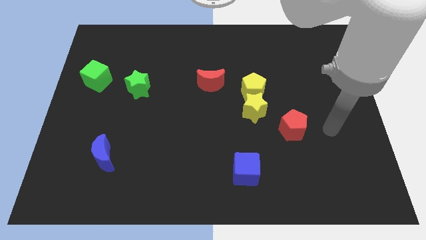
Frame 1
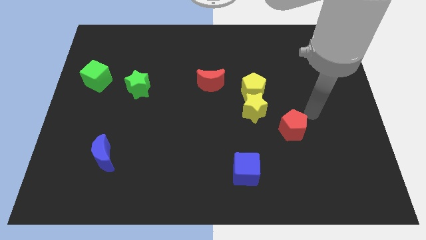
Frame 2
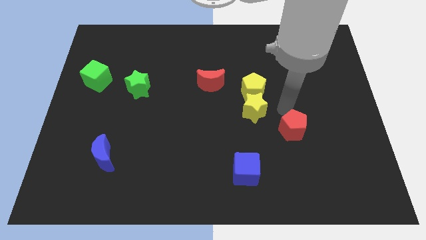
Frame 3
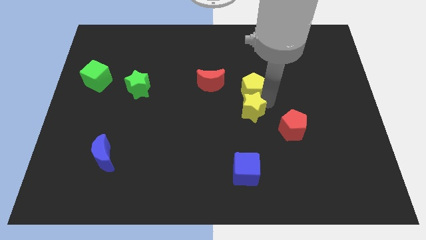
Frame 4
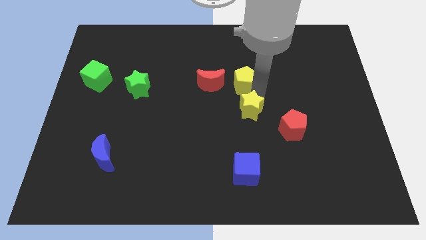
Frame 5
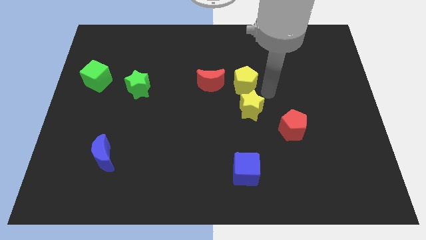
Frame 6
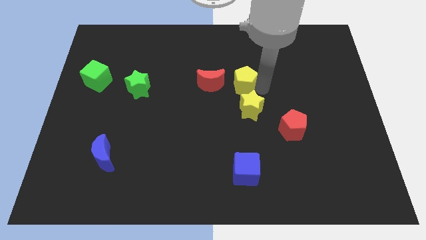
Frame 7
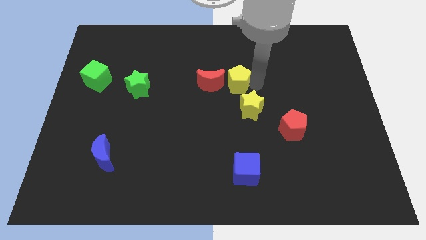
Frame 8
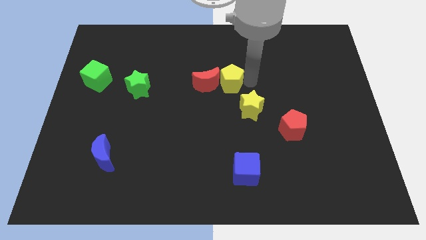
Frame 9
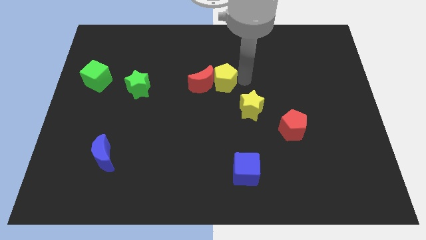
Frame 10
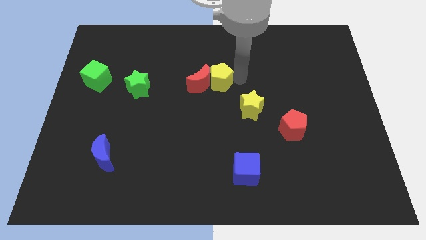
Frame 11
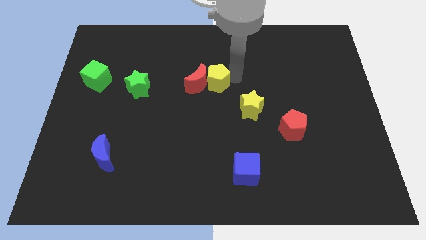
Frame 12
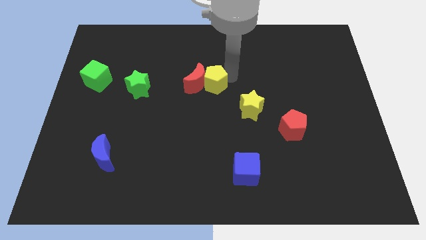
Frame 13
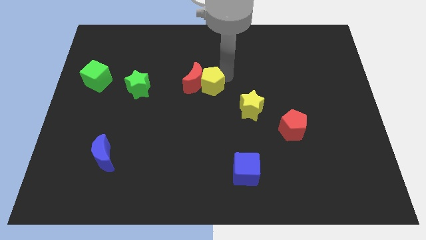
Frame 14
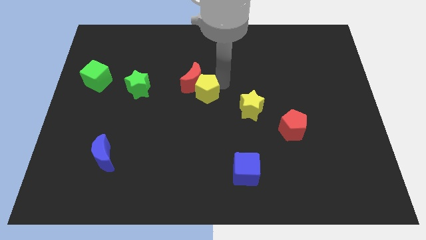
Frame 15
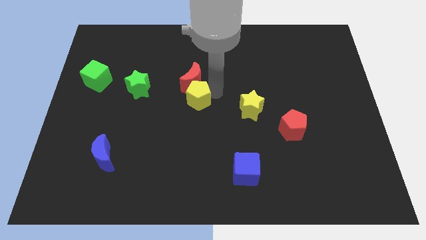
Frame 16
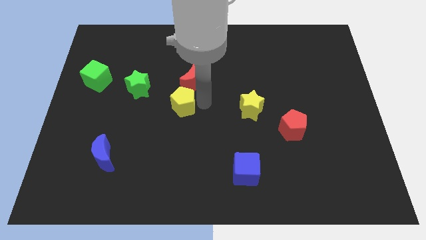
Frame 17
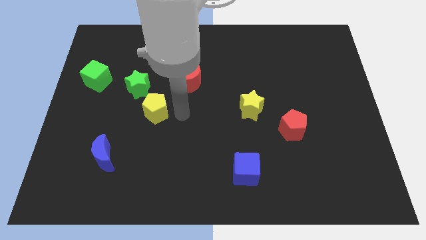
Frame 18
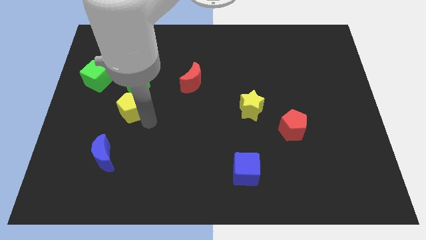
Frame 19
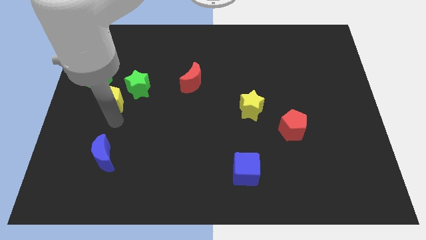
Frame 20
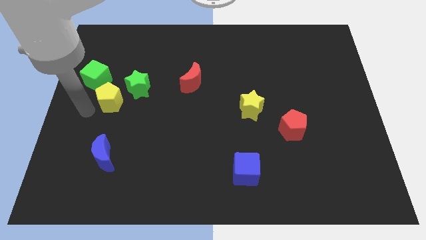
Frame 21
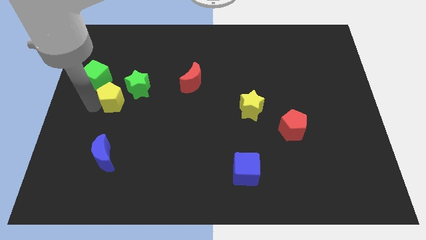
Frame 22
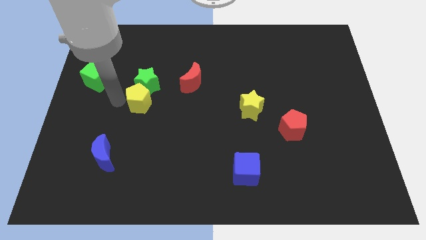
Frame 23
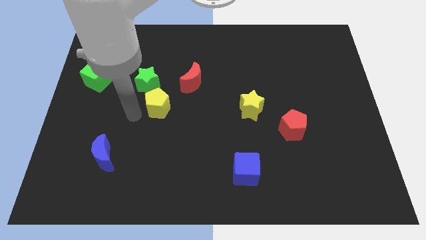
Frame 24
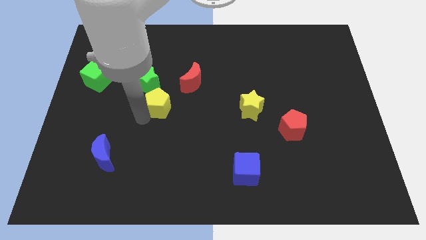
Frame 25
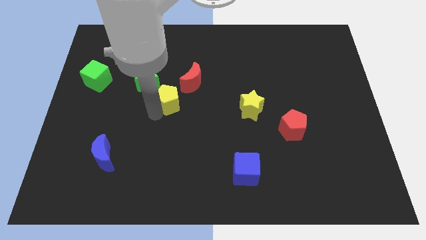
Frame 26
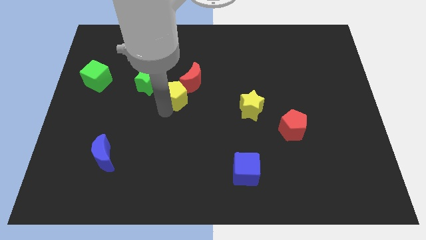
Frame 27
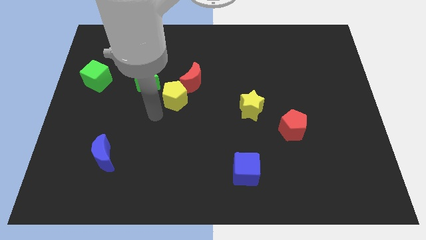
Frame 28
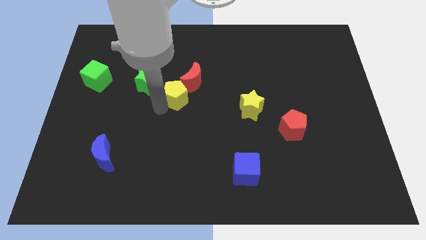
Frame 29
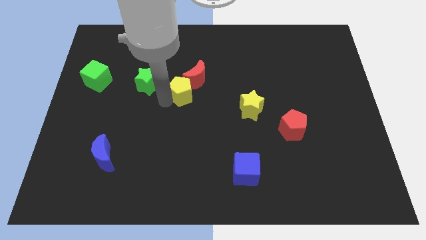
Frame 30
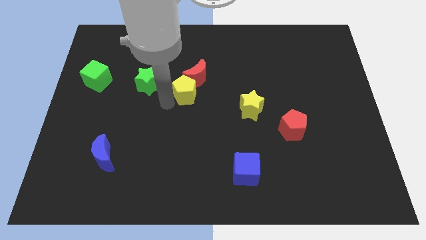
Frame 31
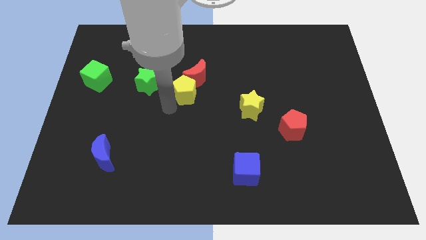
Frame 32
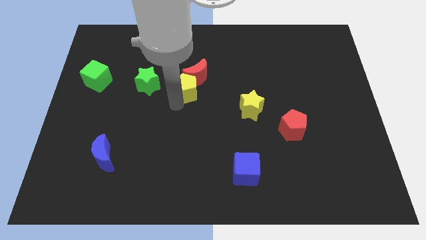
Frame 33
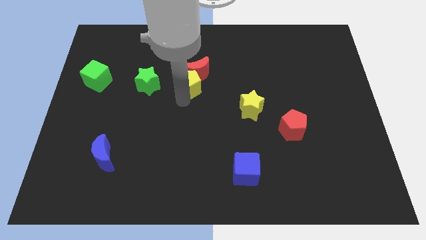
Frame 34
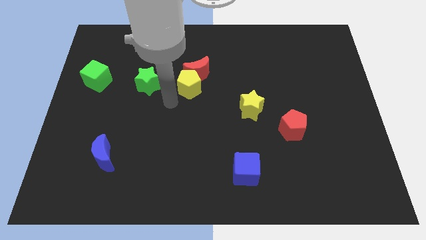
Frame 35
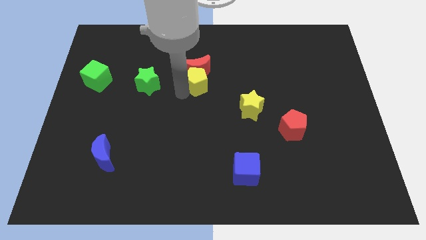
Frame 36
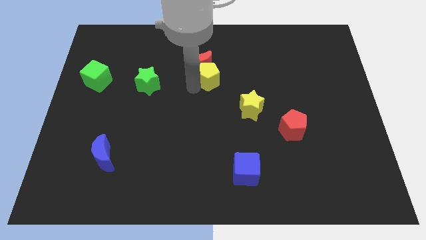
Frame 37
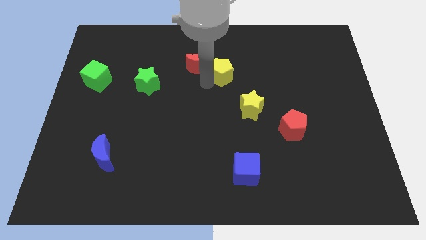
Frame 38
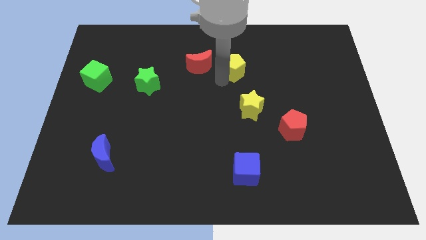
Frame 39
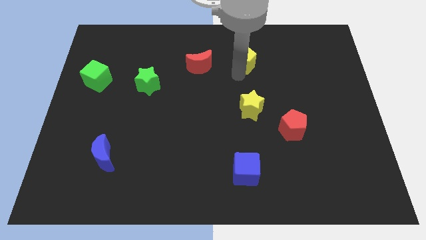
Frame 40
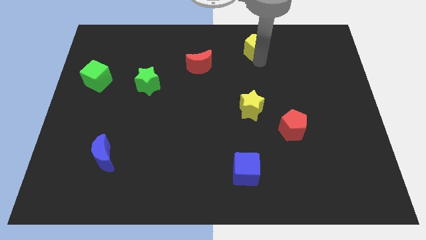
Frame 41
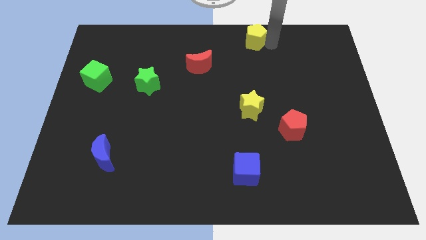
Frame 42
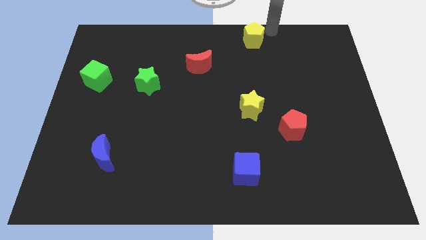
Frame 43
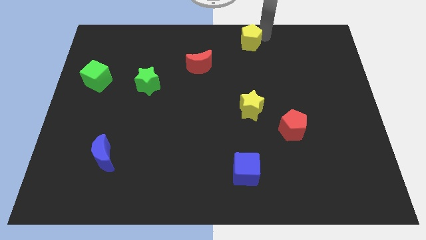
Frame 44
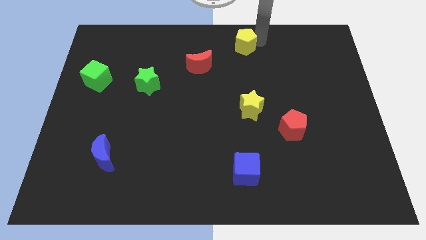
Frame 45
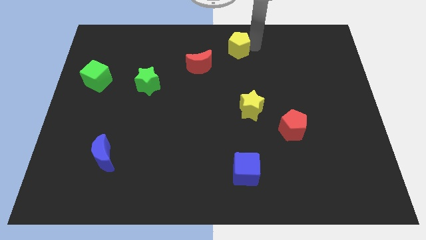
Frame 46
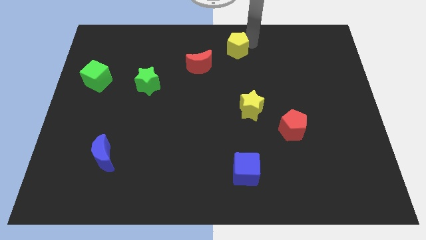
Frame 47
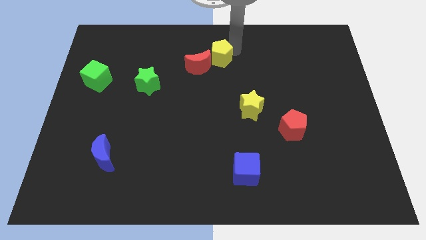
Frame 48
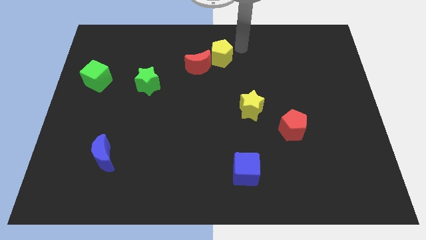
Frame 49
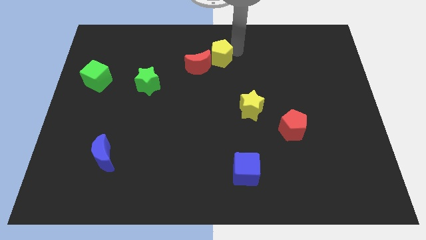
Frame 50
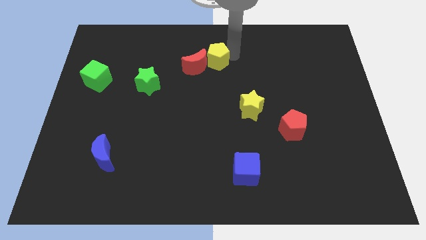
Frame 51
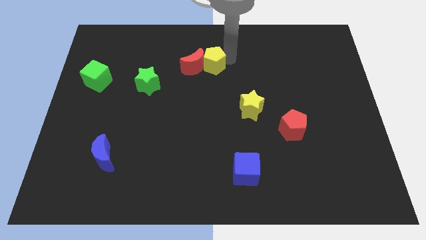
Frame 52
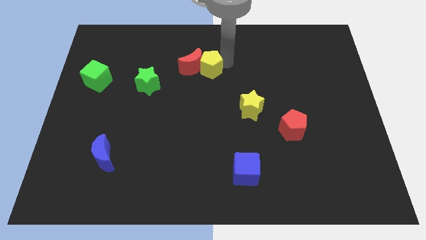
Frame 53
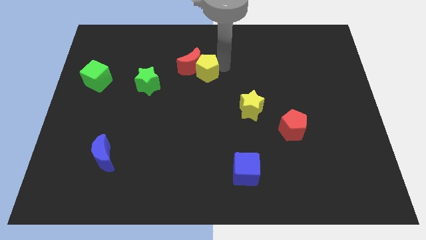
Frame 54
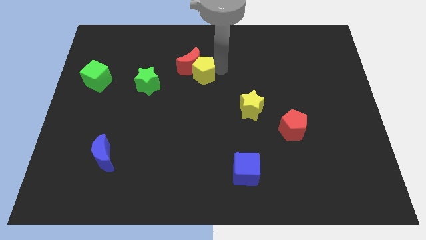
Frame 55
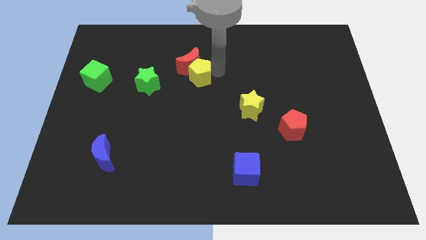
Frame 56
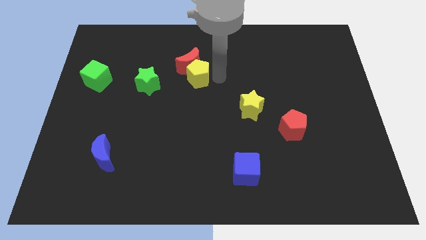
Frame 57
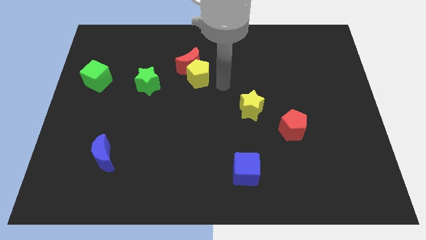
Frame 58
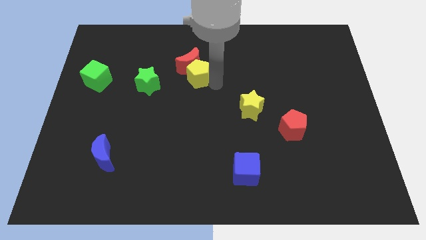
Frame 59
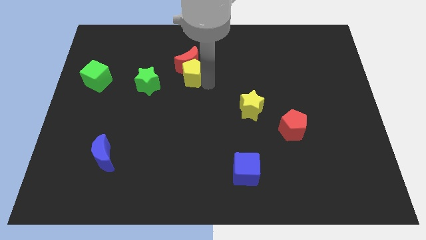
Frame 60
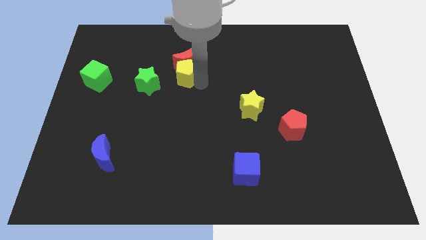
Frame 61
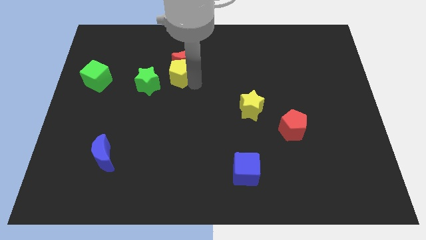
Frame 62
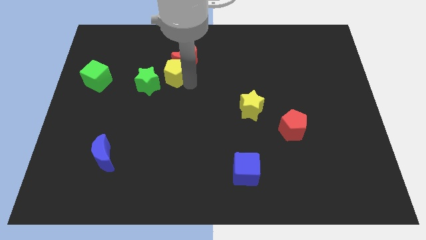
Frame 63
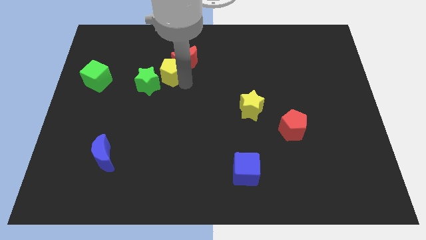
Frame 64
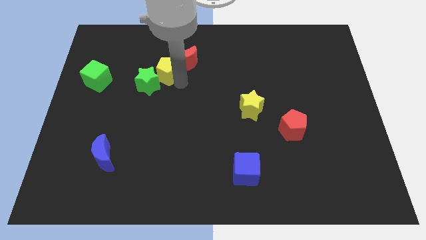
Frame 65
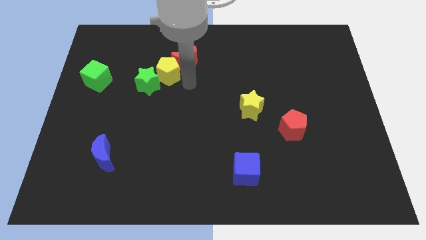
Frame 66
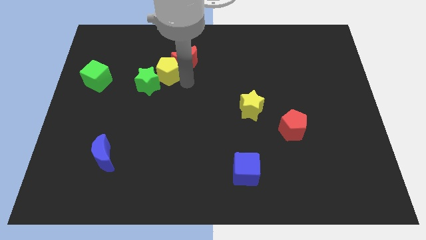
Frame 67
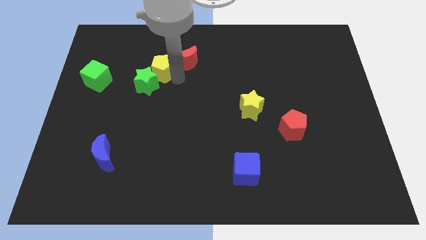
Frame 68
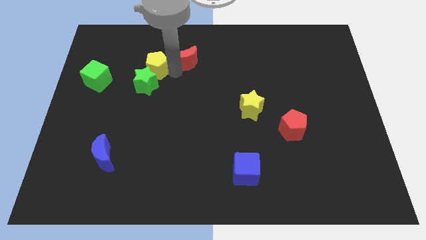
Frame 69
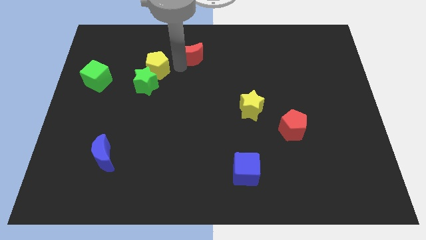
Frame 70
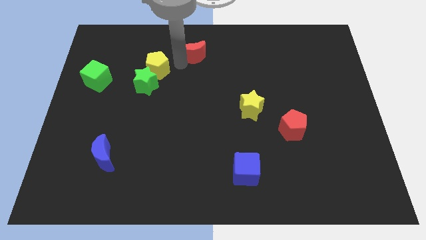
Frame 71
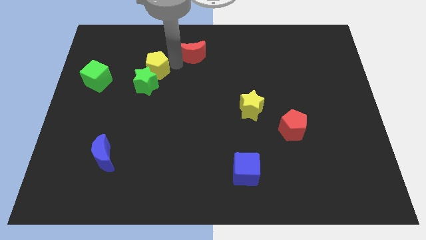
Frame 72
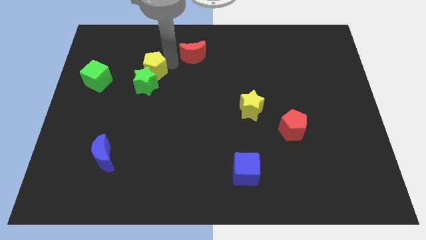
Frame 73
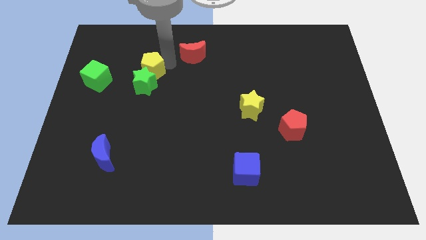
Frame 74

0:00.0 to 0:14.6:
put the yellow pentagon diagonally up and to the left of the green star
